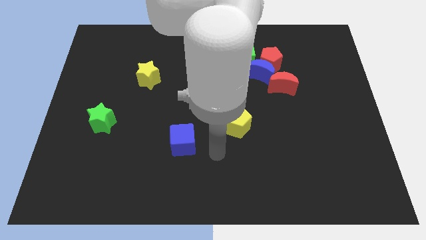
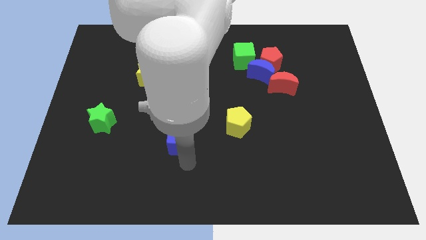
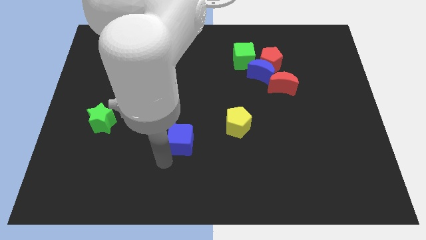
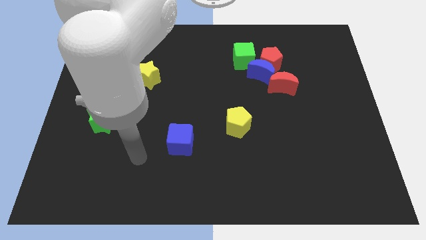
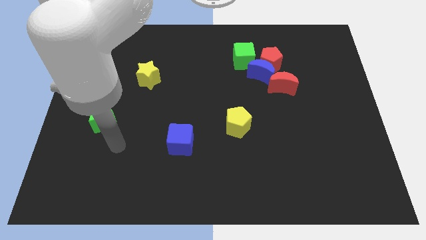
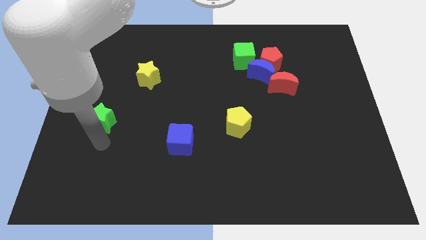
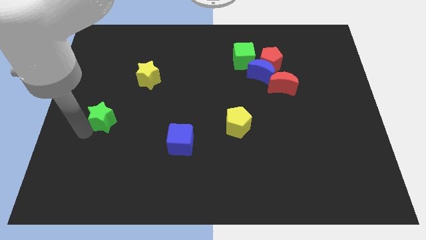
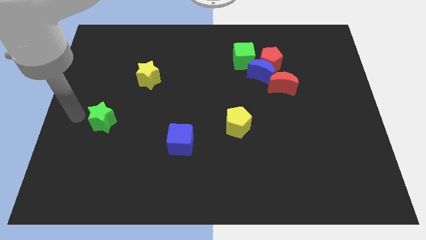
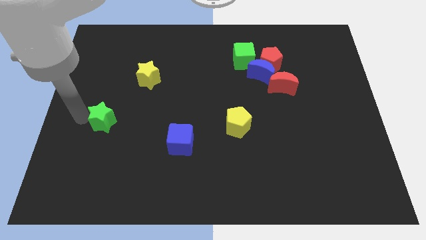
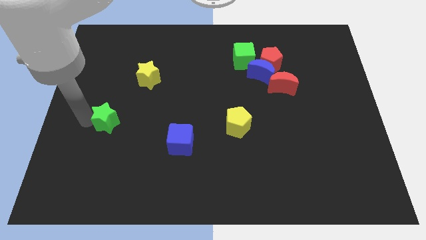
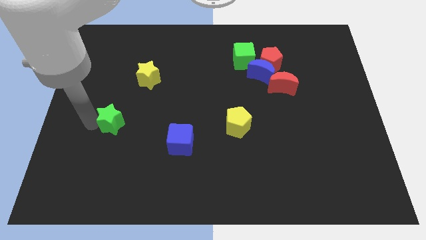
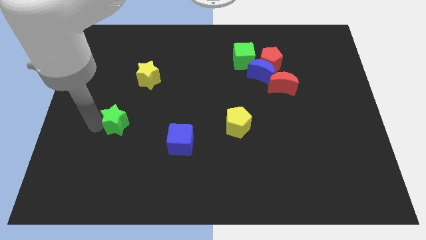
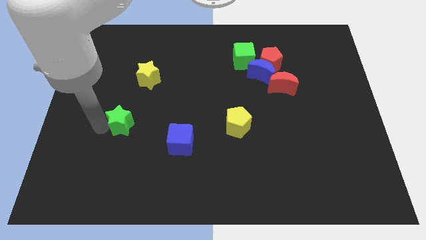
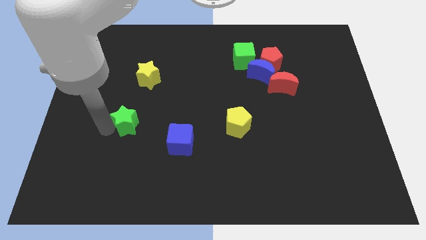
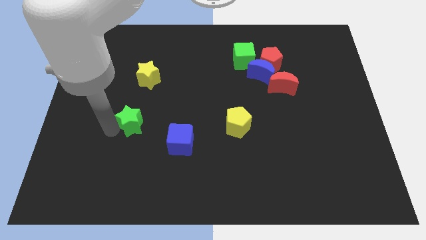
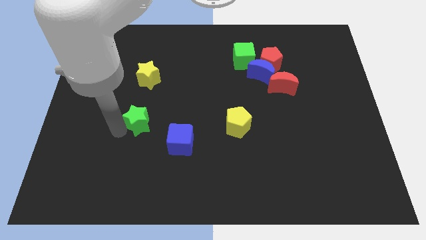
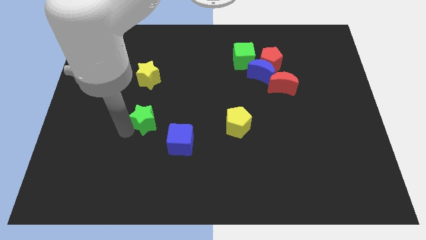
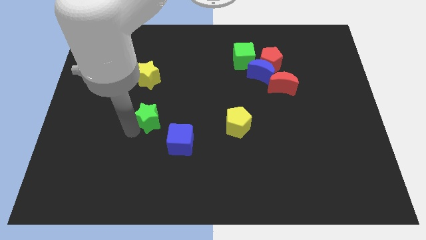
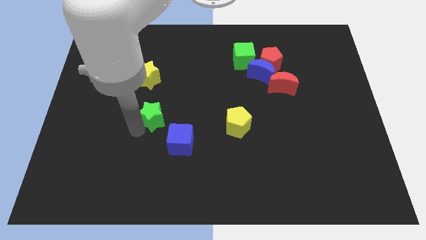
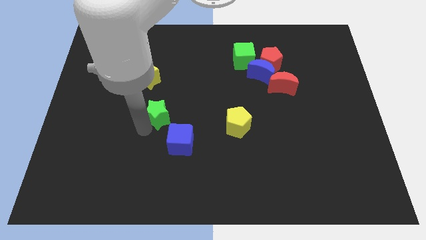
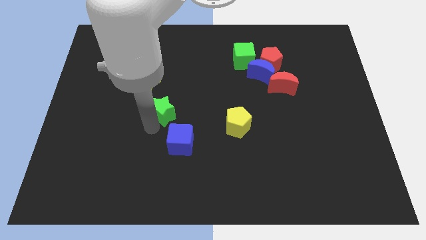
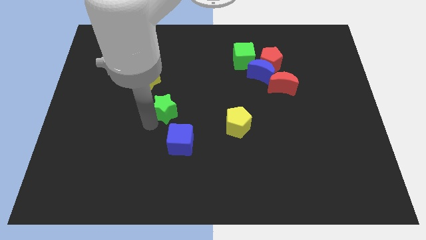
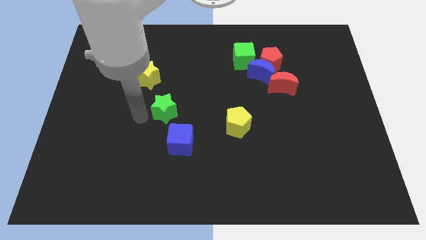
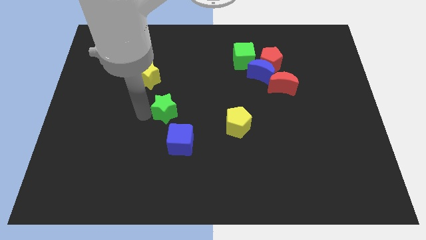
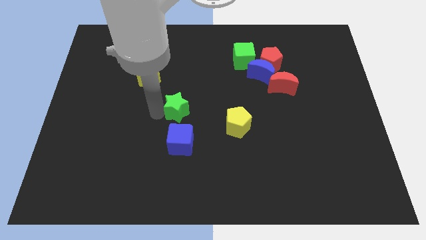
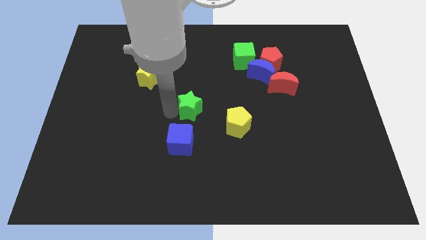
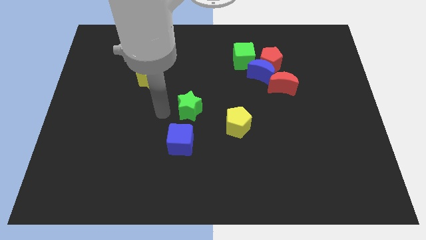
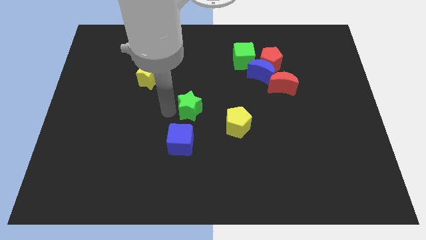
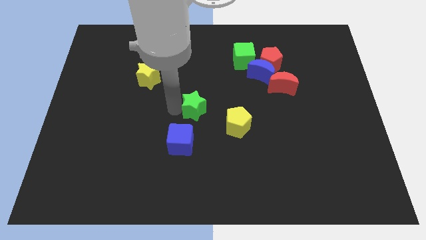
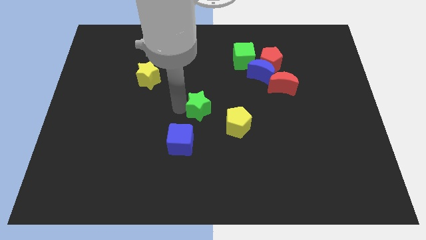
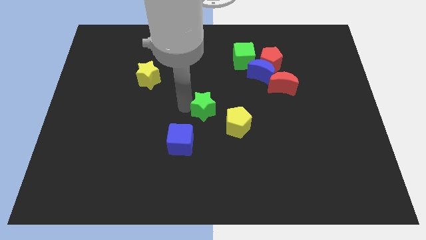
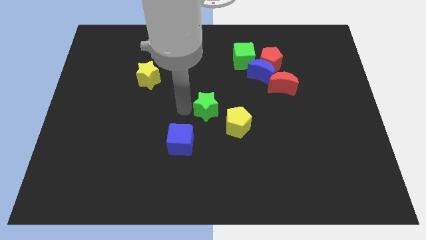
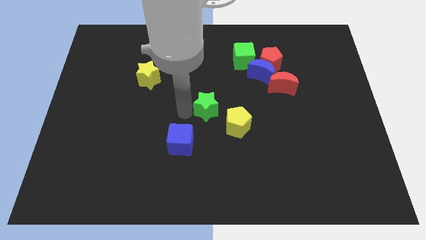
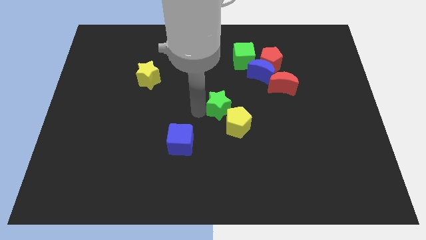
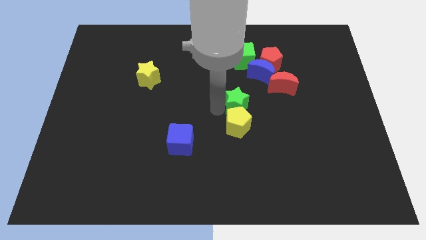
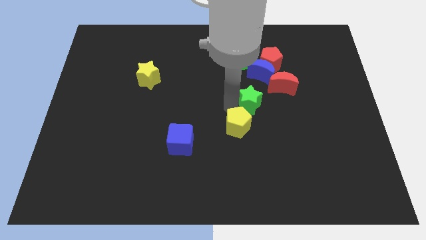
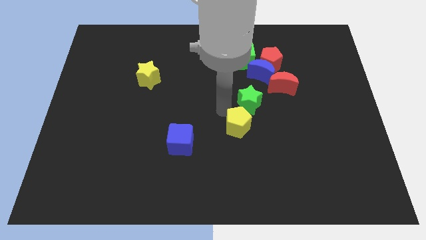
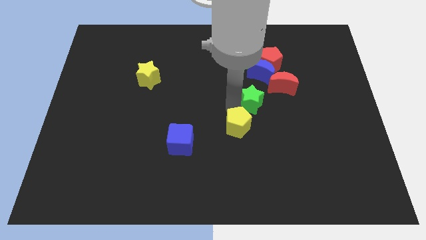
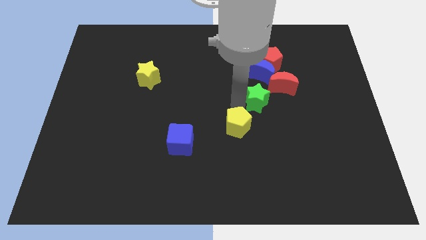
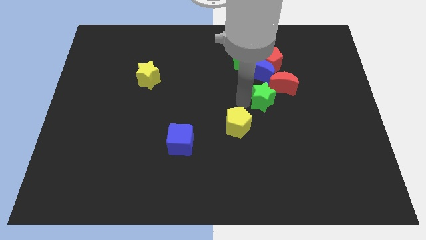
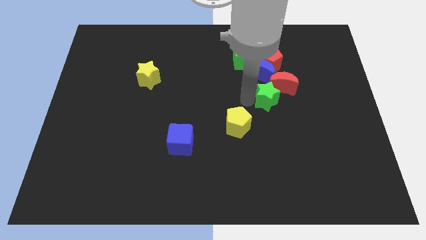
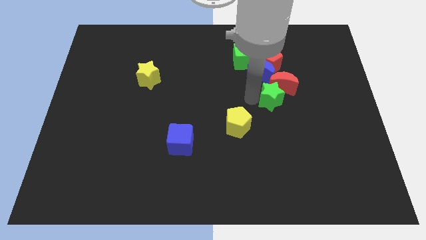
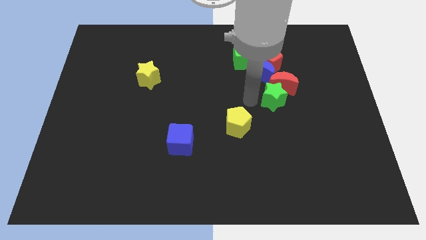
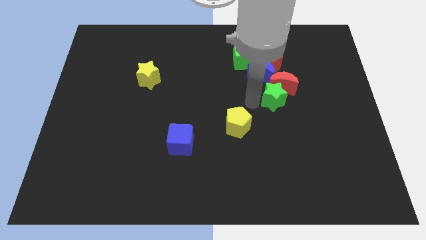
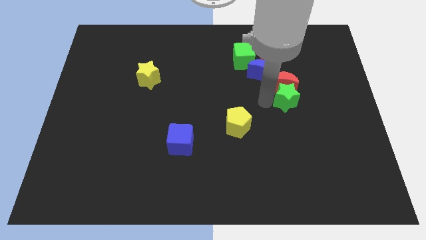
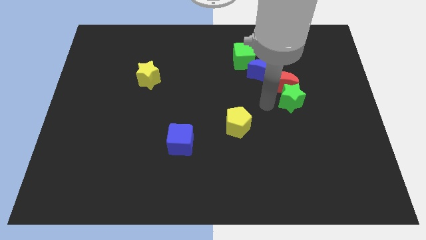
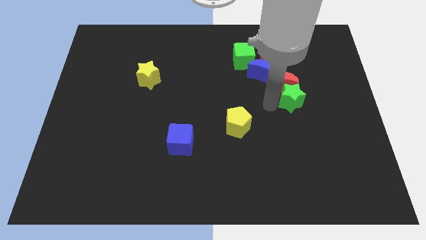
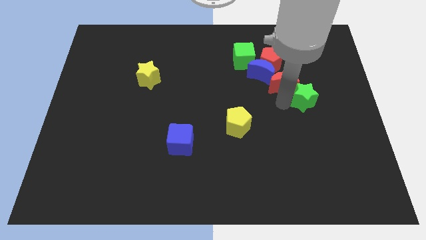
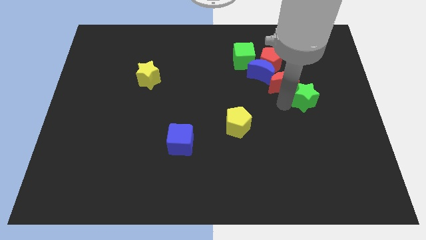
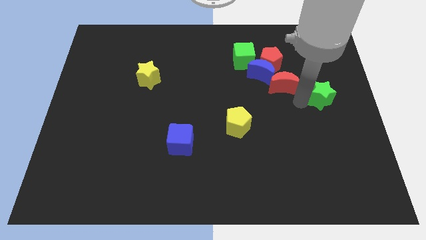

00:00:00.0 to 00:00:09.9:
put the green star to the right side of the board

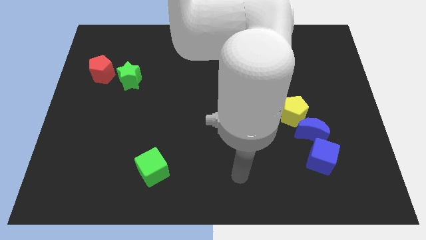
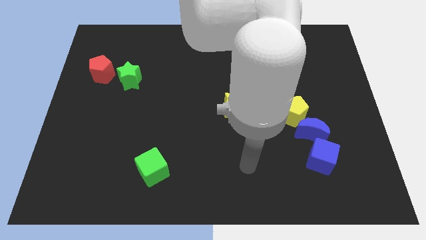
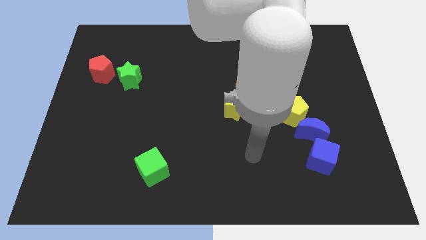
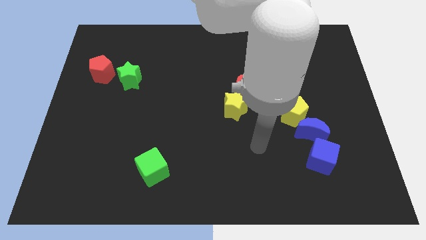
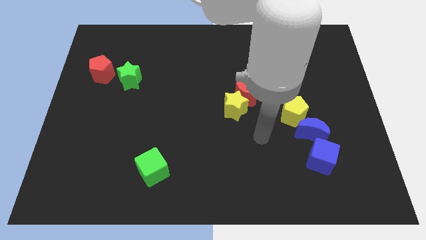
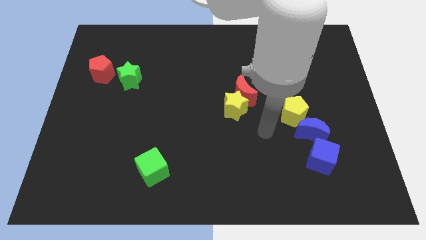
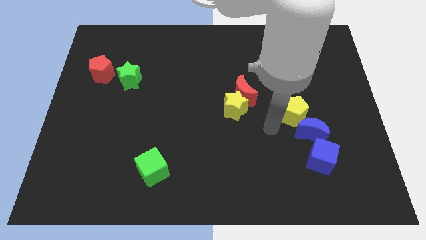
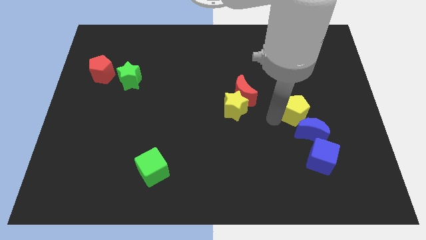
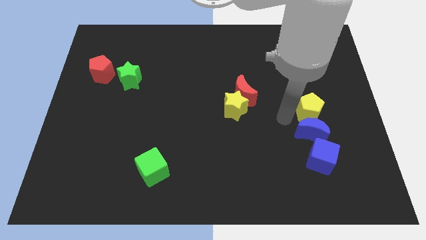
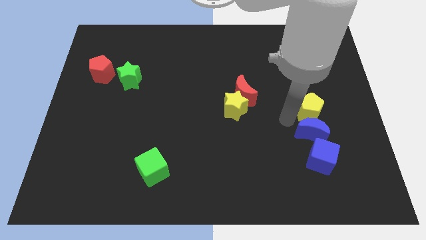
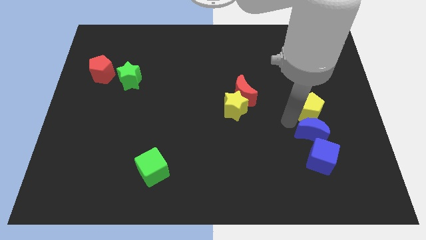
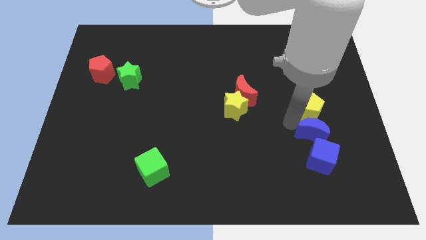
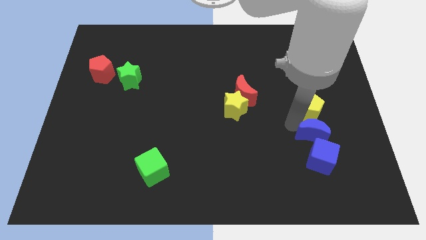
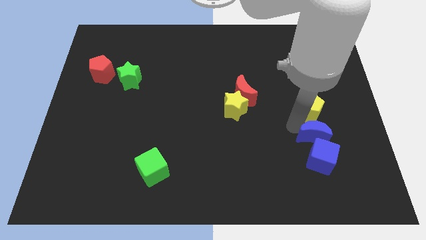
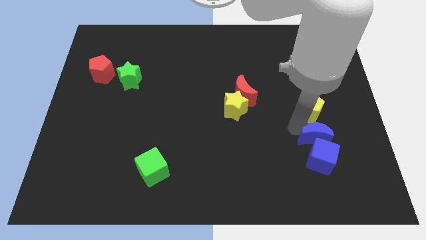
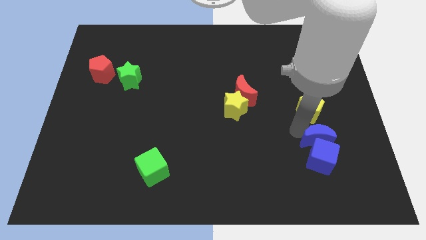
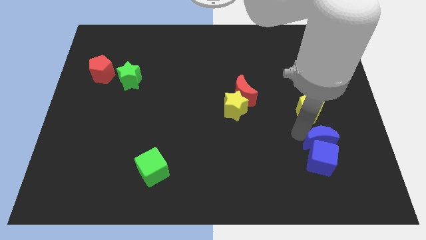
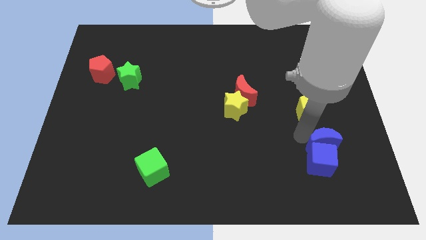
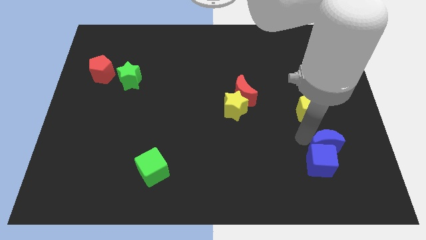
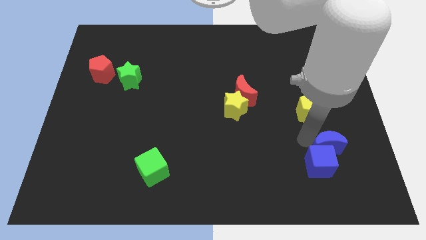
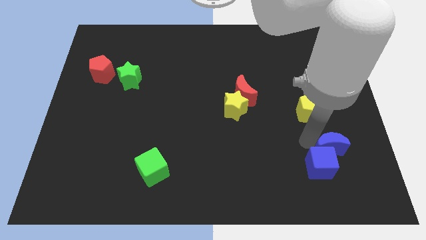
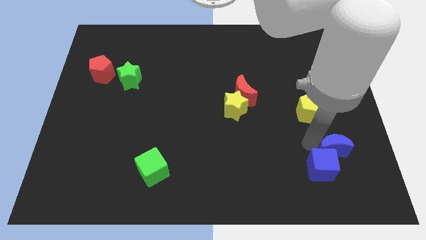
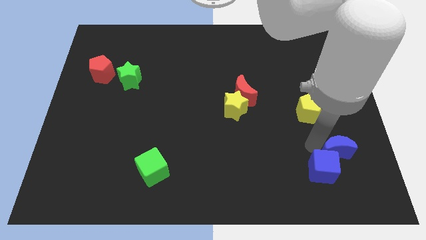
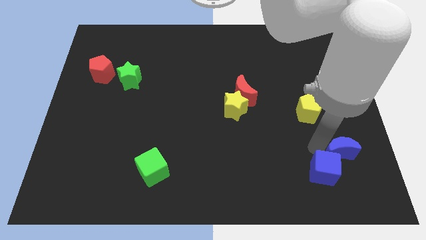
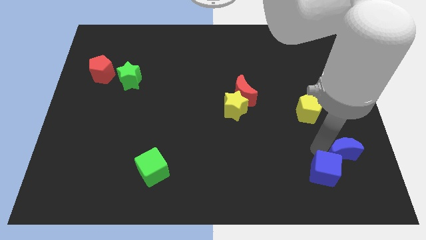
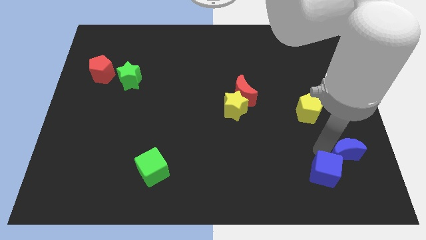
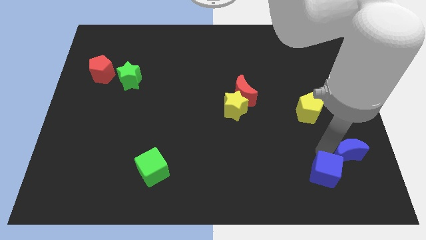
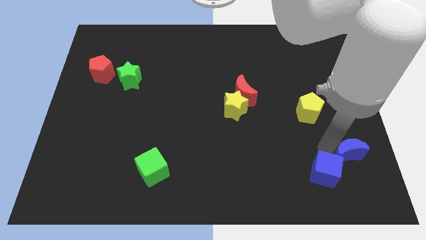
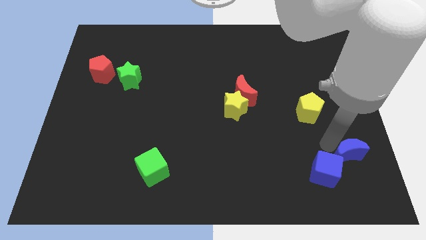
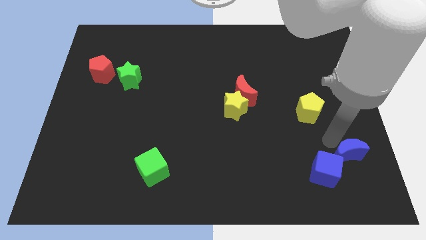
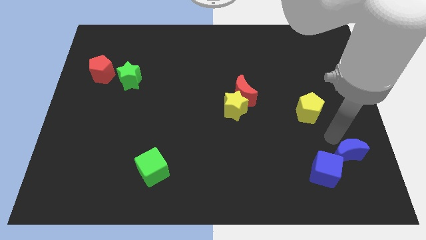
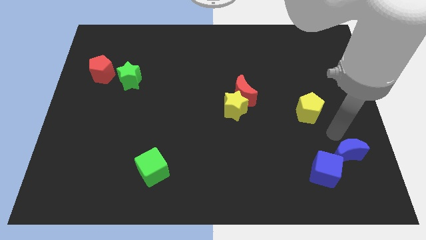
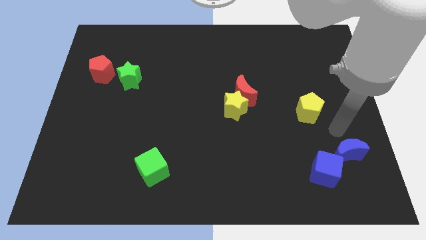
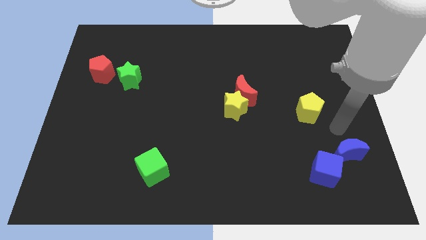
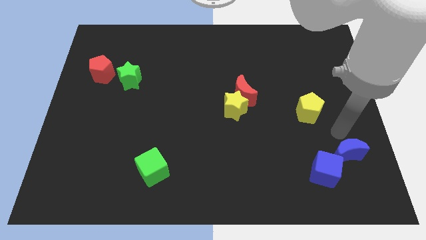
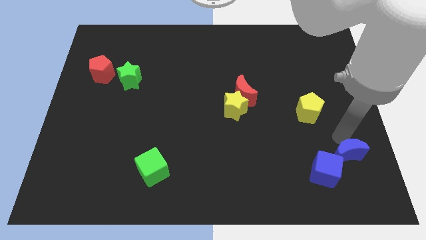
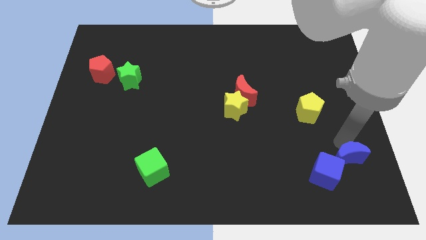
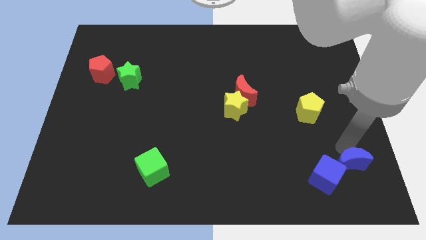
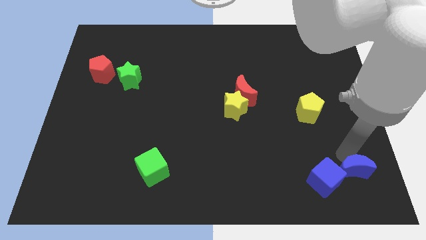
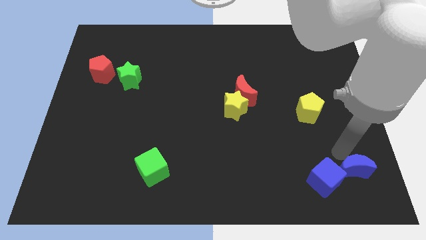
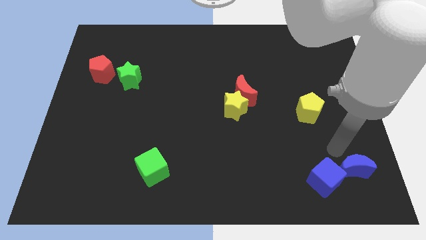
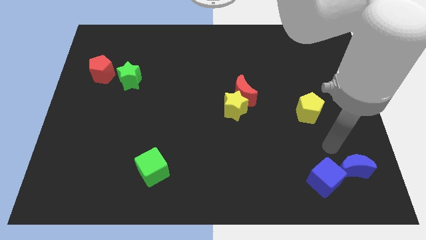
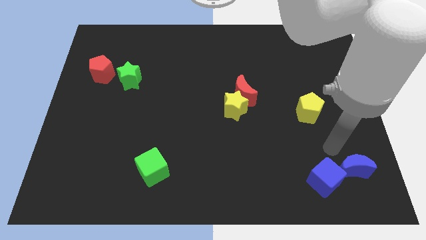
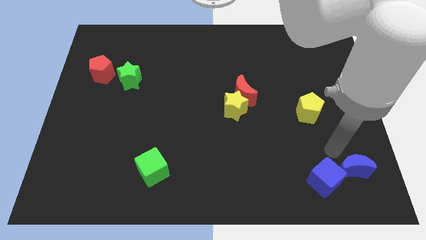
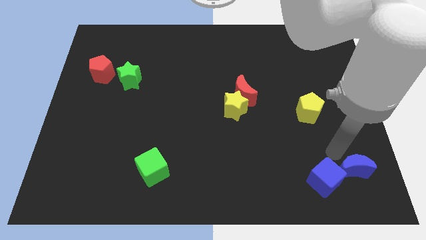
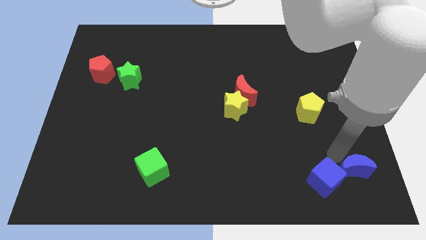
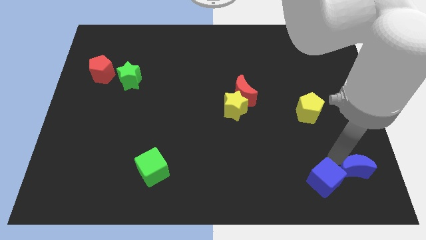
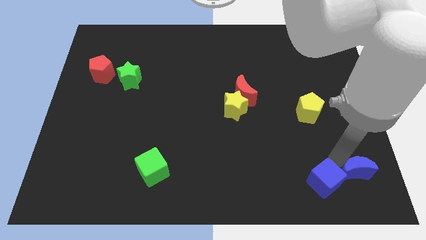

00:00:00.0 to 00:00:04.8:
slide the blue moon to the bottom right of the board
